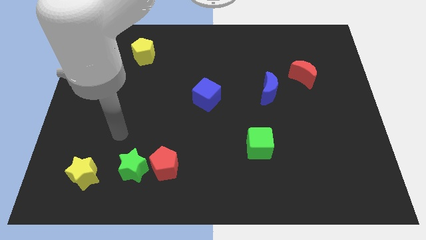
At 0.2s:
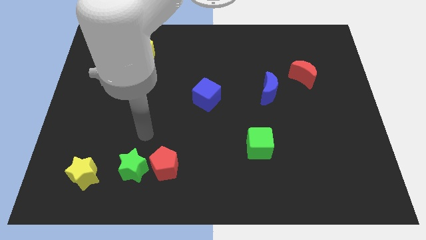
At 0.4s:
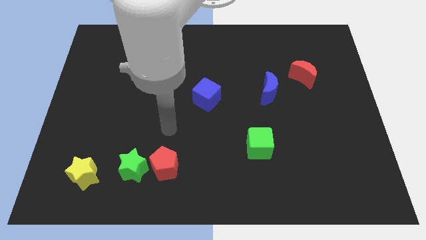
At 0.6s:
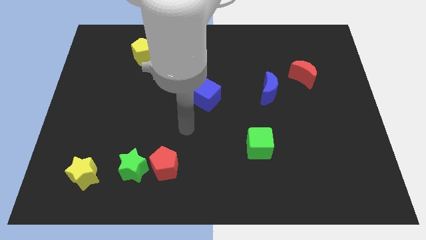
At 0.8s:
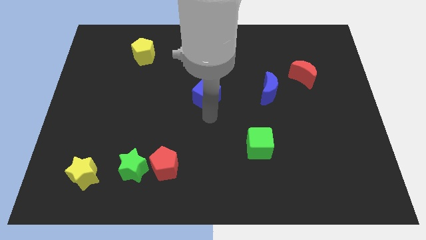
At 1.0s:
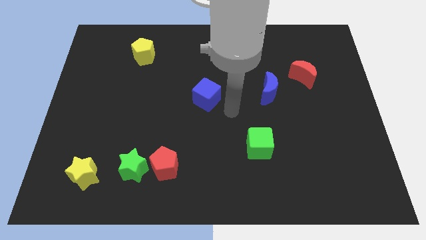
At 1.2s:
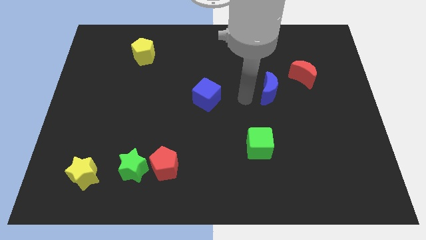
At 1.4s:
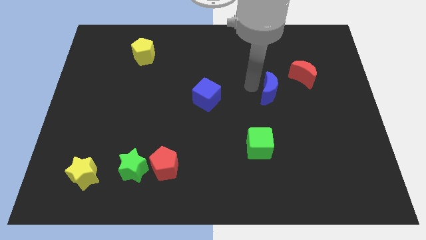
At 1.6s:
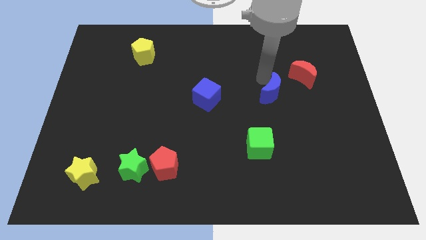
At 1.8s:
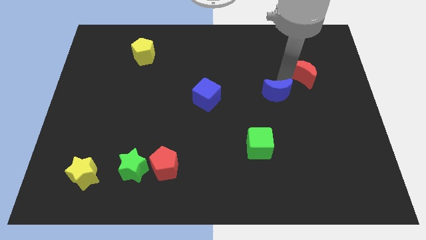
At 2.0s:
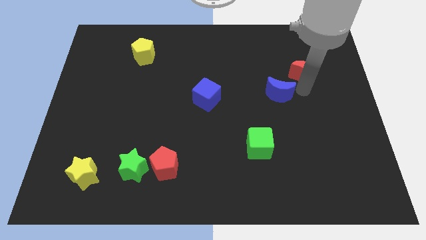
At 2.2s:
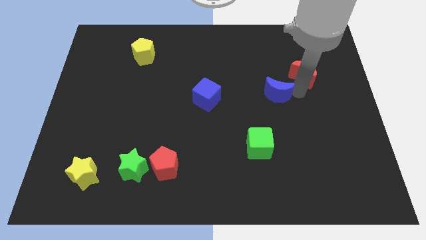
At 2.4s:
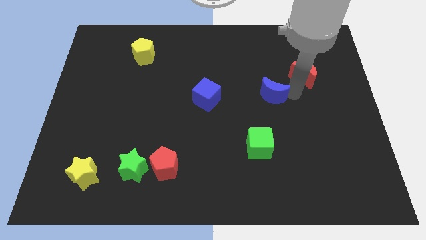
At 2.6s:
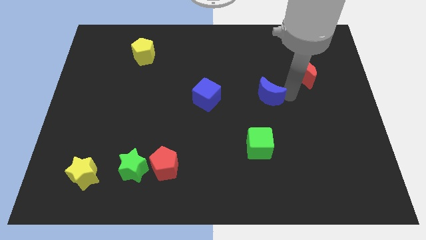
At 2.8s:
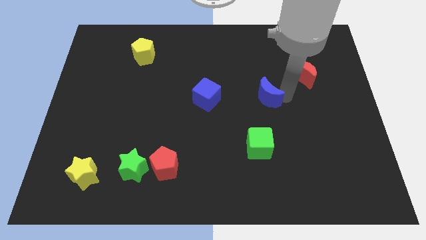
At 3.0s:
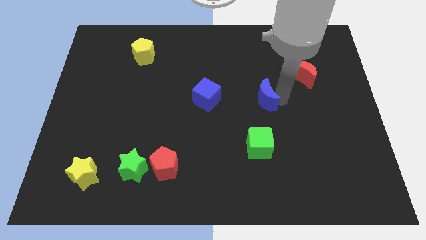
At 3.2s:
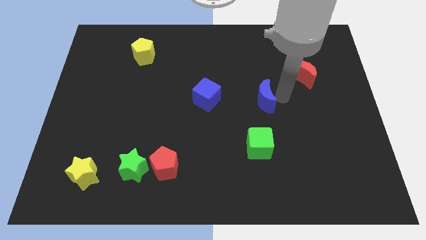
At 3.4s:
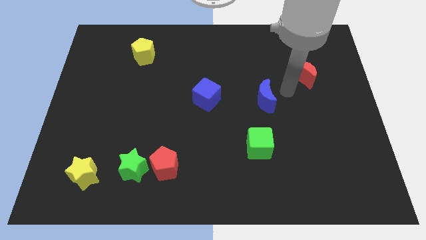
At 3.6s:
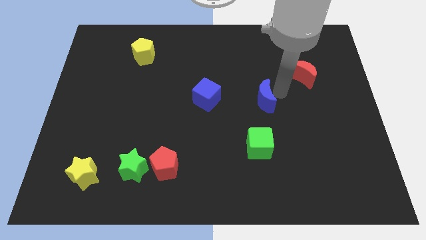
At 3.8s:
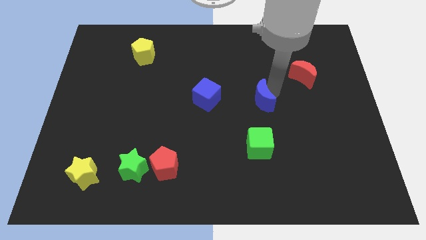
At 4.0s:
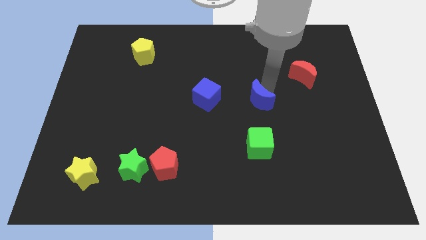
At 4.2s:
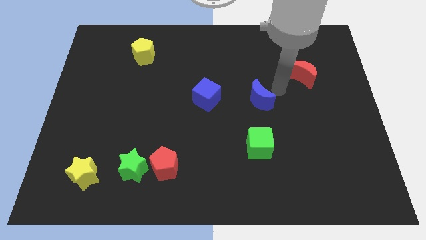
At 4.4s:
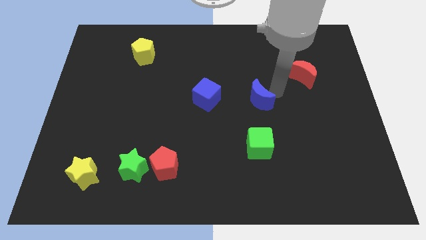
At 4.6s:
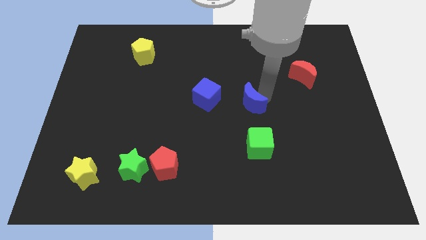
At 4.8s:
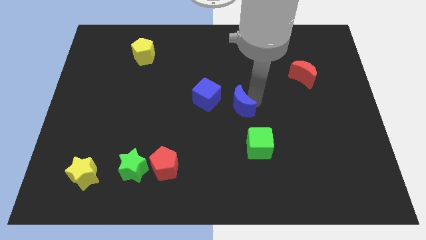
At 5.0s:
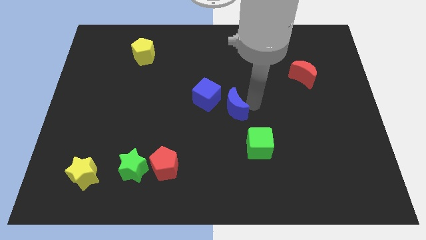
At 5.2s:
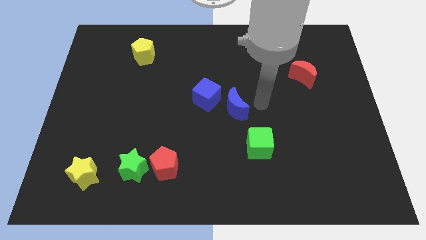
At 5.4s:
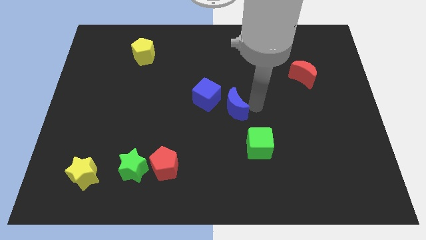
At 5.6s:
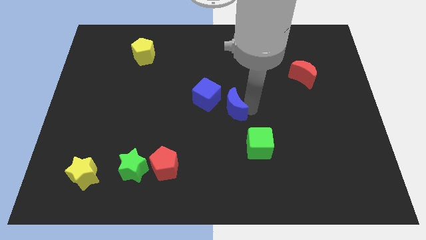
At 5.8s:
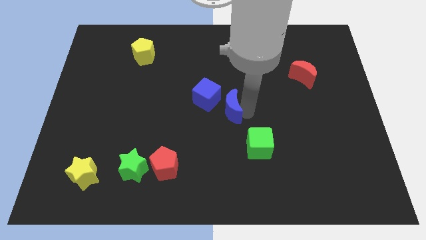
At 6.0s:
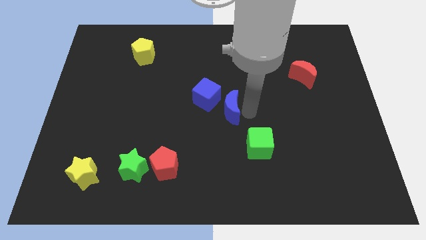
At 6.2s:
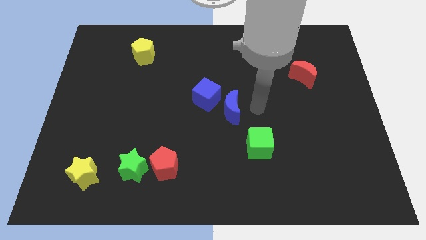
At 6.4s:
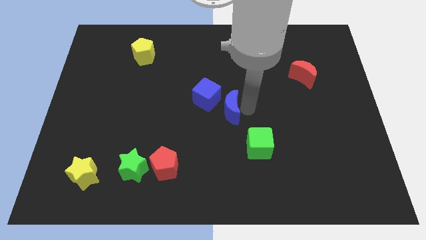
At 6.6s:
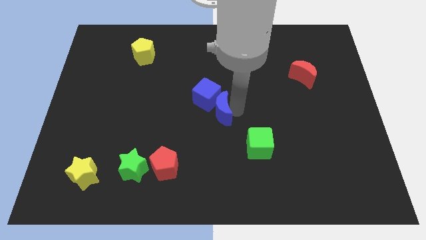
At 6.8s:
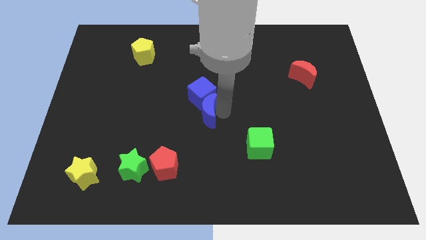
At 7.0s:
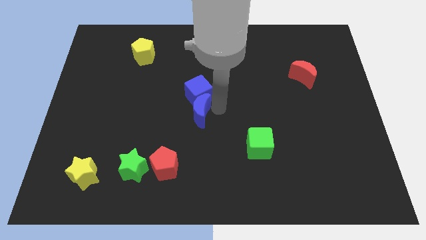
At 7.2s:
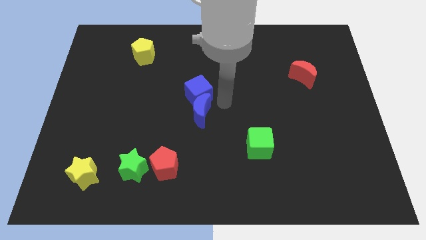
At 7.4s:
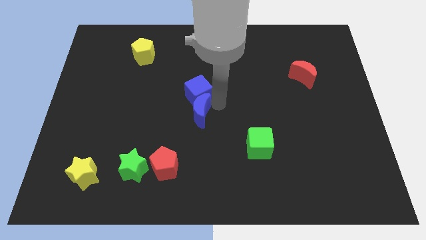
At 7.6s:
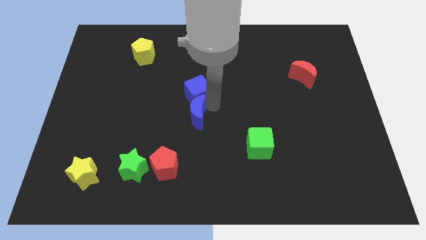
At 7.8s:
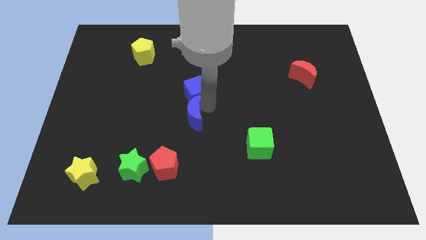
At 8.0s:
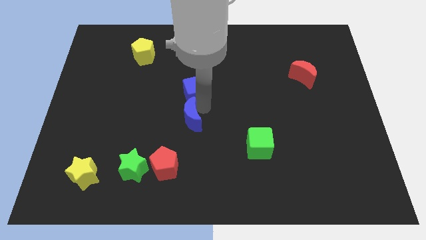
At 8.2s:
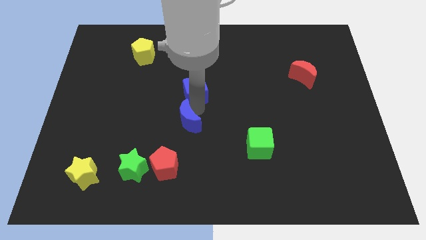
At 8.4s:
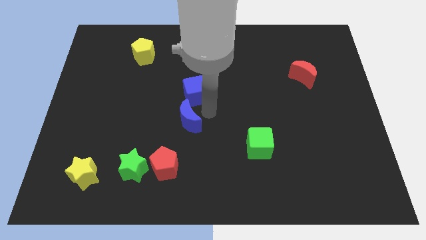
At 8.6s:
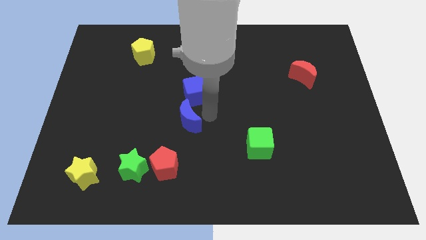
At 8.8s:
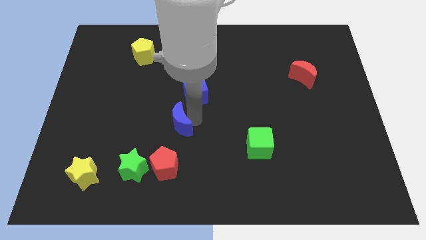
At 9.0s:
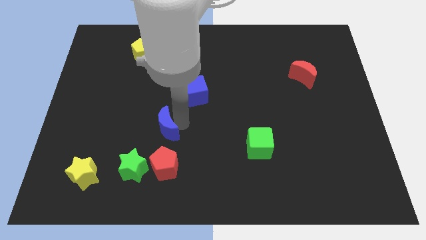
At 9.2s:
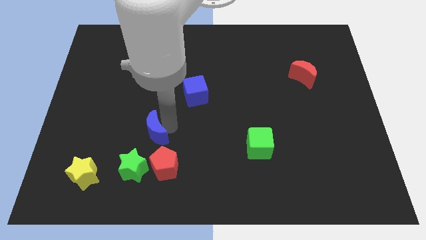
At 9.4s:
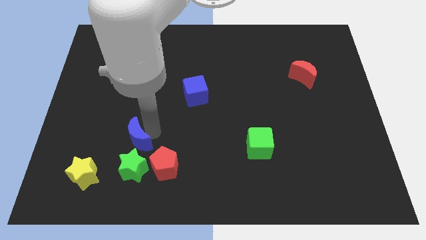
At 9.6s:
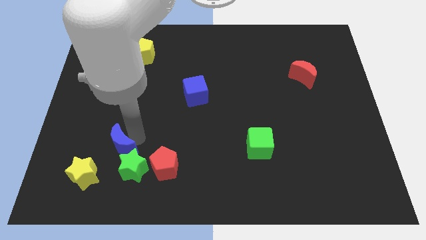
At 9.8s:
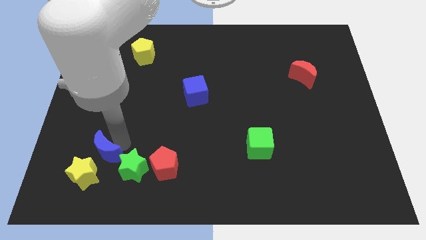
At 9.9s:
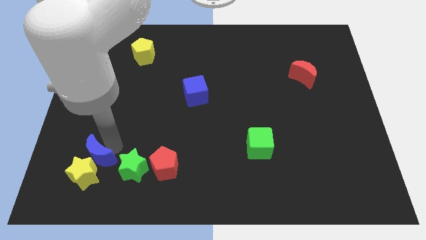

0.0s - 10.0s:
move the blue moon to the yellow star

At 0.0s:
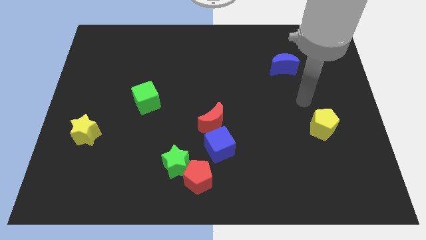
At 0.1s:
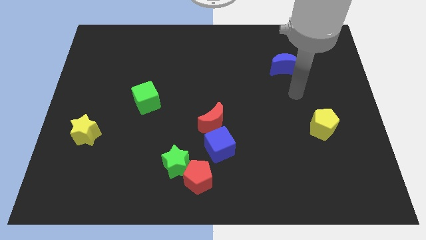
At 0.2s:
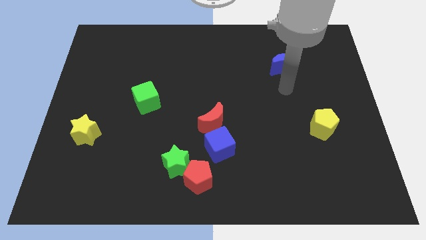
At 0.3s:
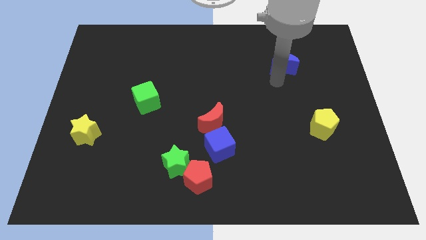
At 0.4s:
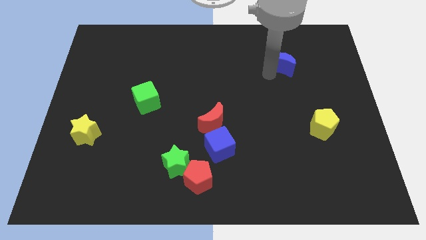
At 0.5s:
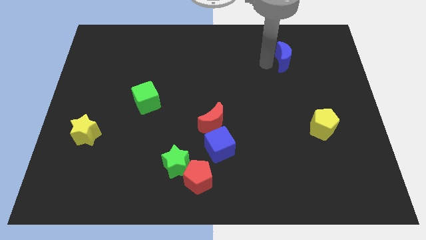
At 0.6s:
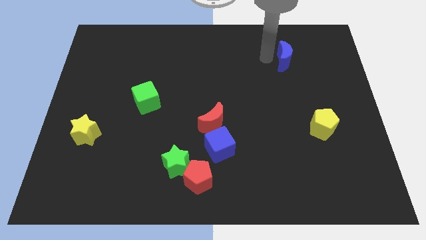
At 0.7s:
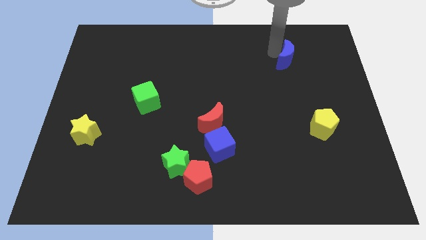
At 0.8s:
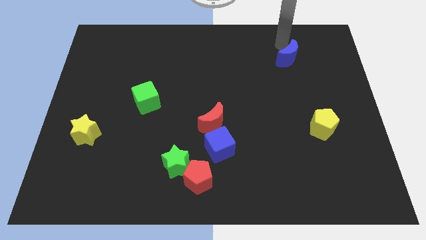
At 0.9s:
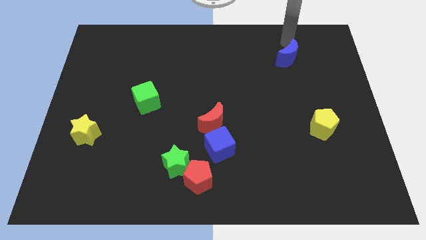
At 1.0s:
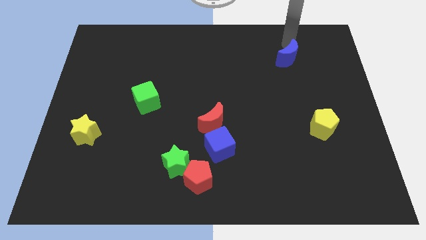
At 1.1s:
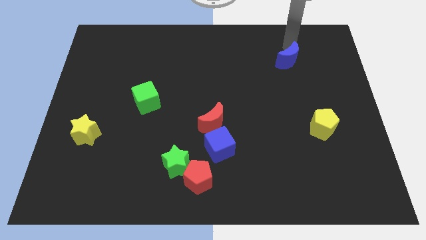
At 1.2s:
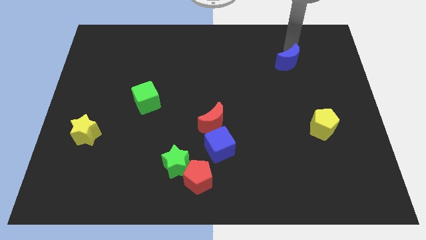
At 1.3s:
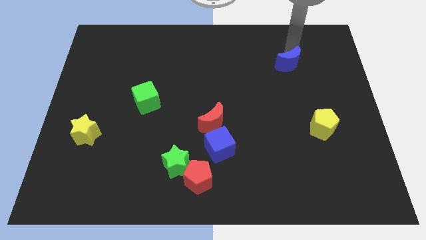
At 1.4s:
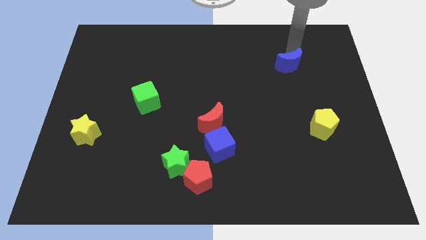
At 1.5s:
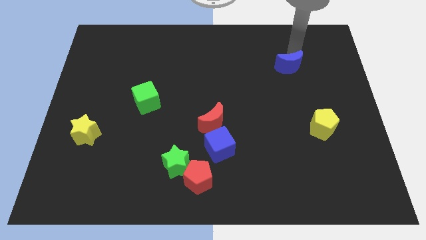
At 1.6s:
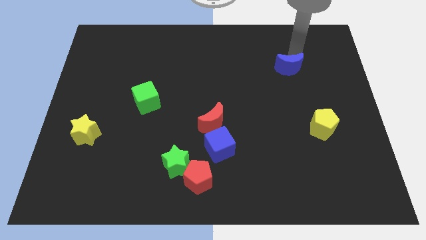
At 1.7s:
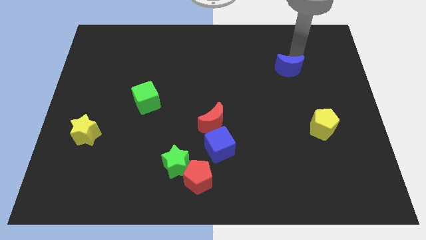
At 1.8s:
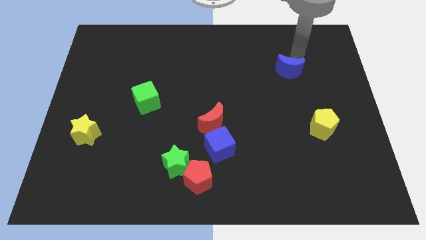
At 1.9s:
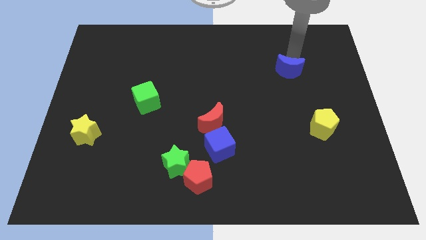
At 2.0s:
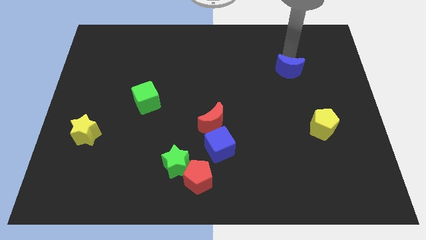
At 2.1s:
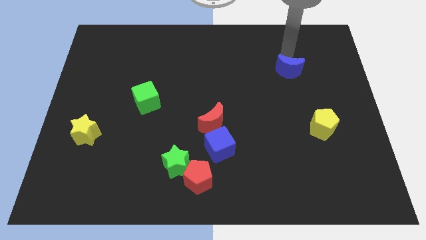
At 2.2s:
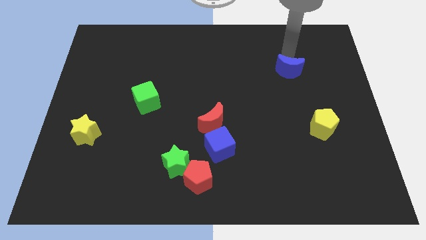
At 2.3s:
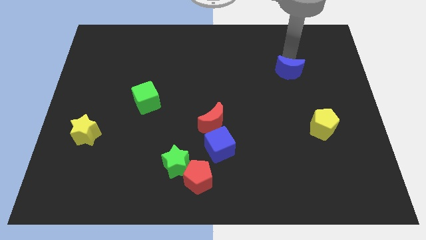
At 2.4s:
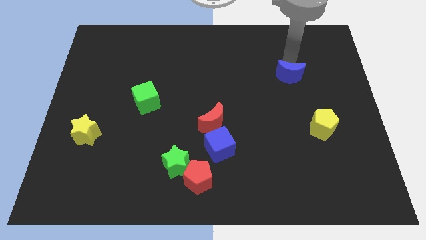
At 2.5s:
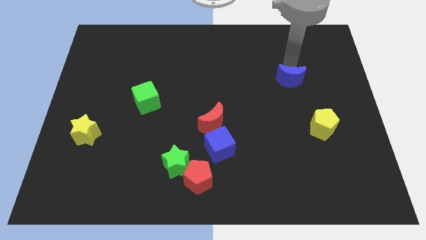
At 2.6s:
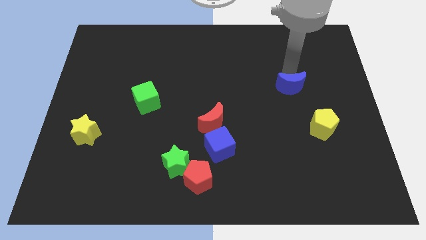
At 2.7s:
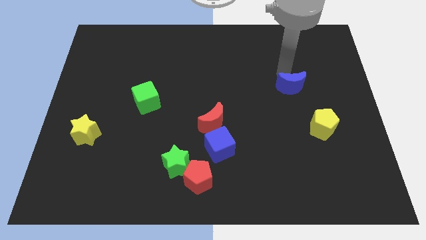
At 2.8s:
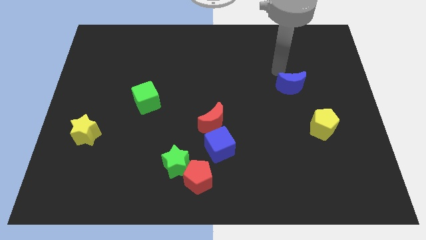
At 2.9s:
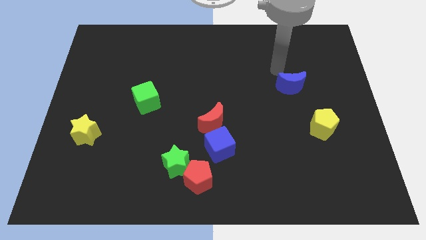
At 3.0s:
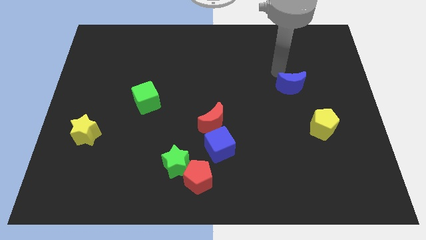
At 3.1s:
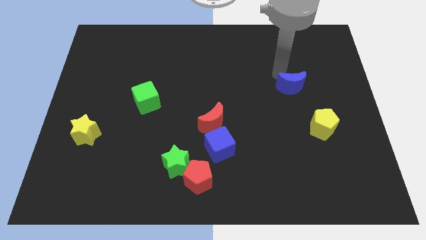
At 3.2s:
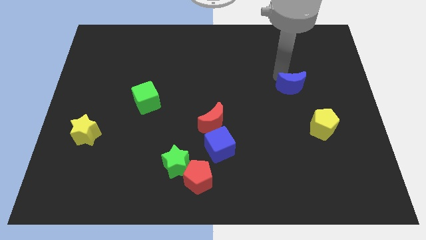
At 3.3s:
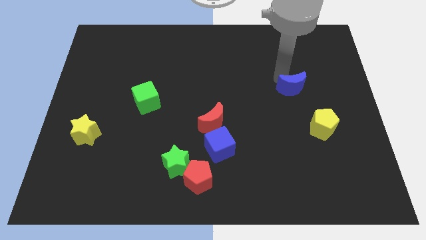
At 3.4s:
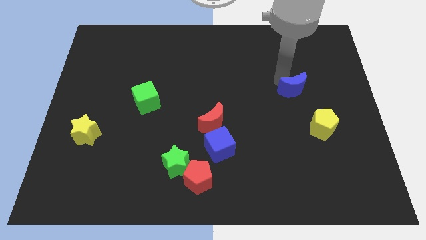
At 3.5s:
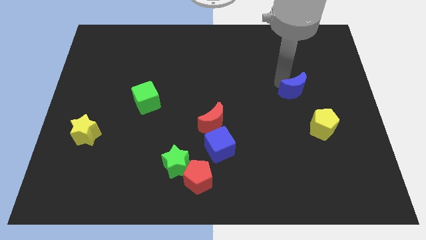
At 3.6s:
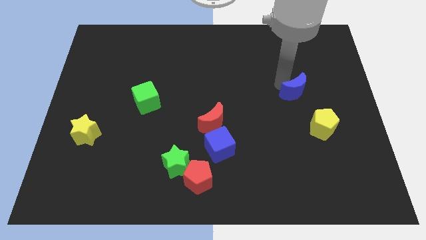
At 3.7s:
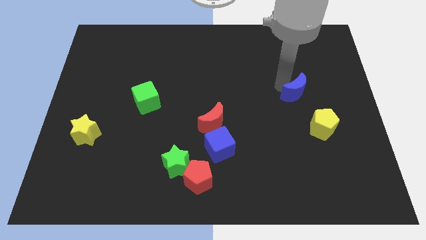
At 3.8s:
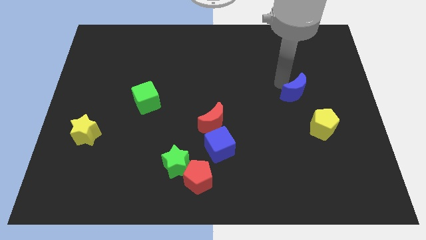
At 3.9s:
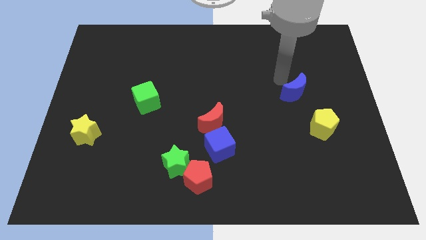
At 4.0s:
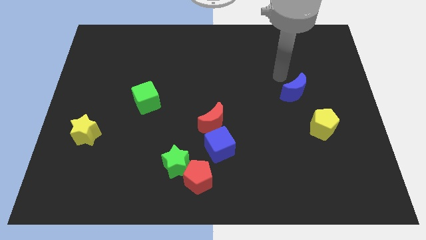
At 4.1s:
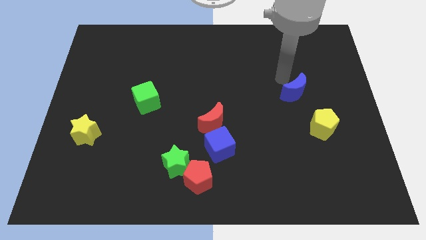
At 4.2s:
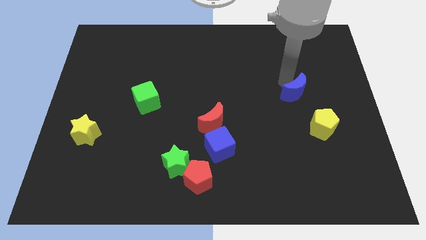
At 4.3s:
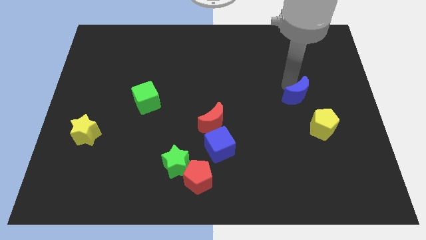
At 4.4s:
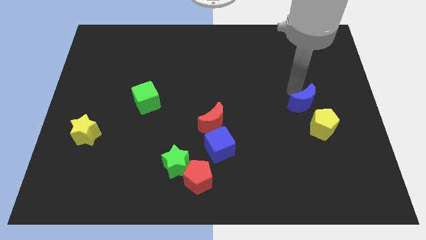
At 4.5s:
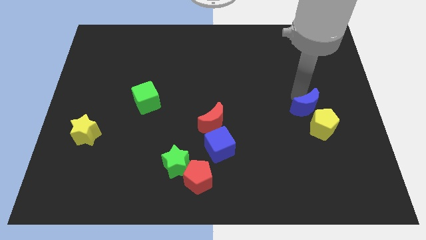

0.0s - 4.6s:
push the blue moon towards the yellow pentagon
